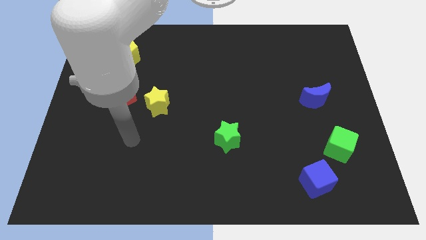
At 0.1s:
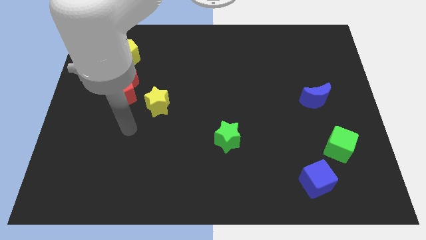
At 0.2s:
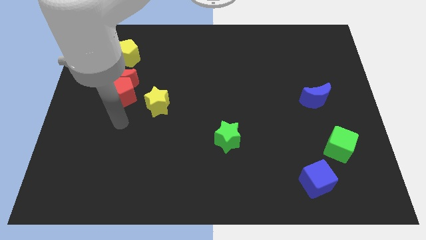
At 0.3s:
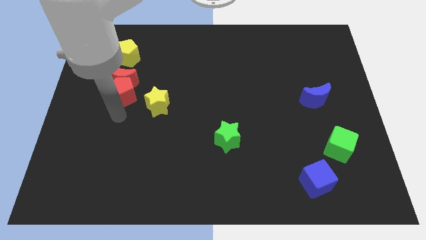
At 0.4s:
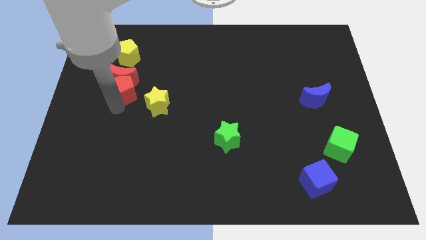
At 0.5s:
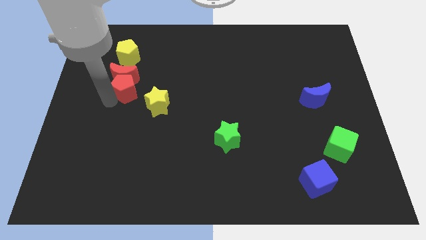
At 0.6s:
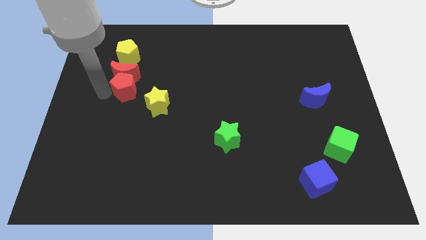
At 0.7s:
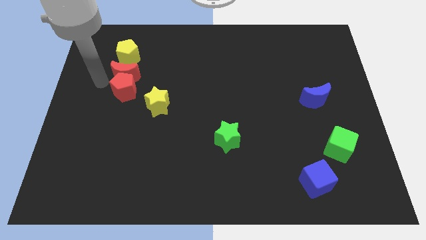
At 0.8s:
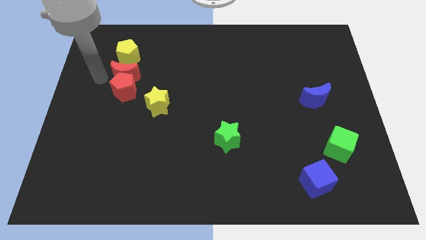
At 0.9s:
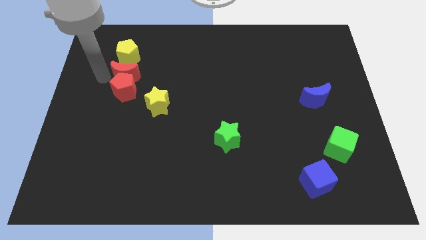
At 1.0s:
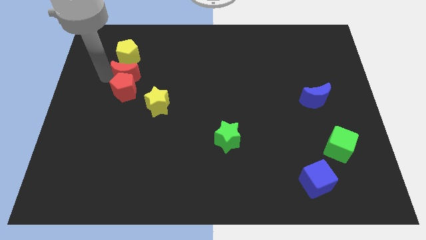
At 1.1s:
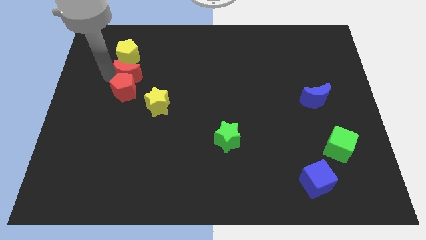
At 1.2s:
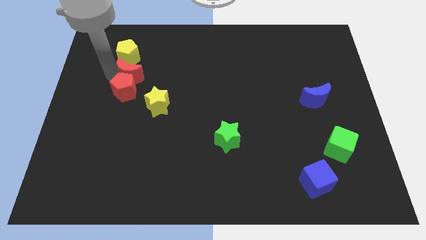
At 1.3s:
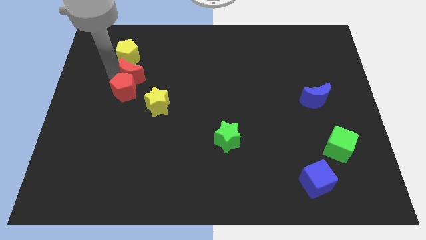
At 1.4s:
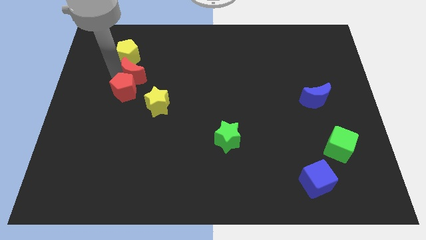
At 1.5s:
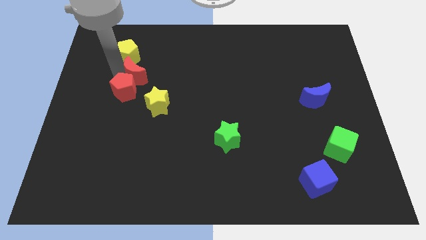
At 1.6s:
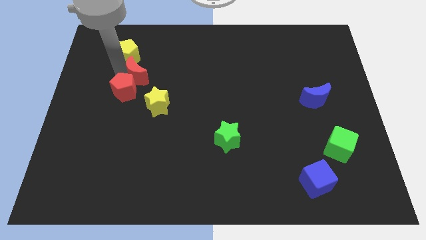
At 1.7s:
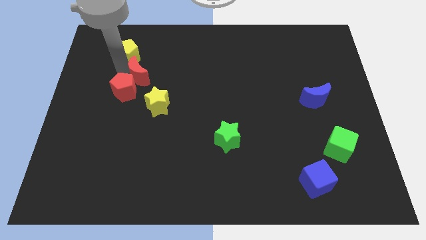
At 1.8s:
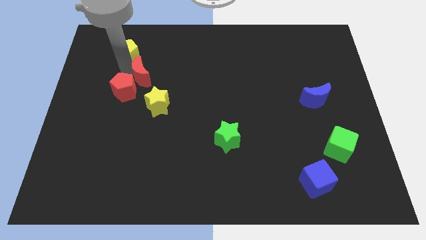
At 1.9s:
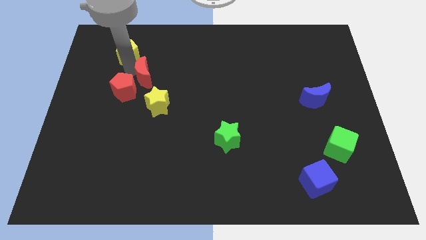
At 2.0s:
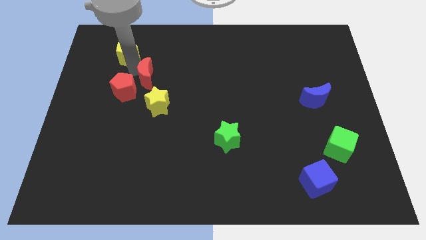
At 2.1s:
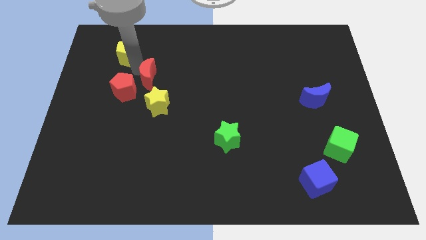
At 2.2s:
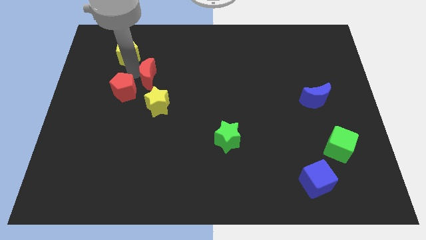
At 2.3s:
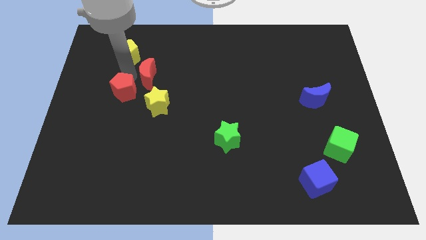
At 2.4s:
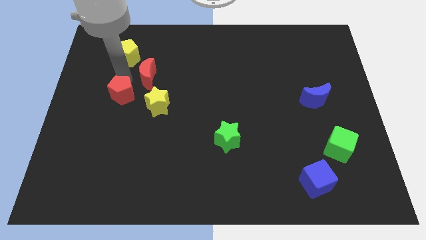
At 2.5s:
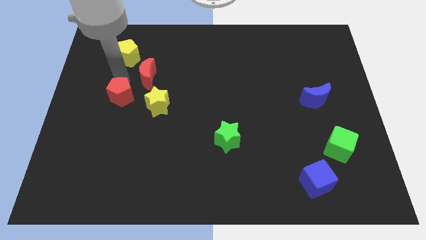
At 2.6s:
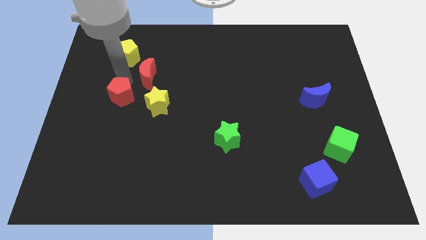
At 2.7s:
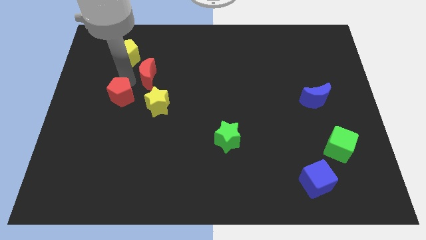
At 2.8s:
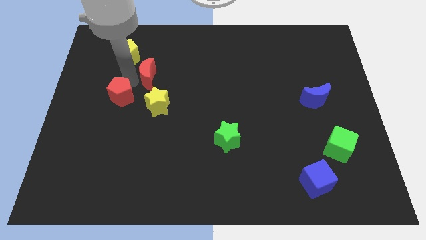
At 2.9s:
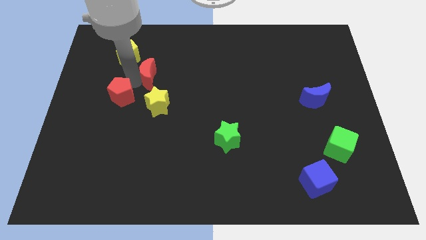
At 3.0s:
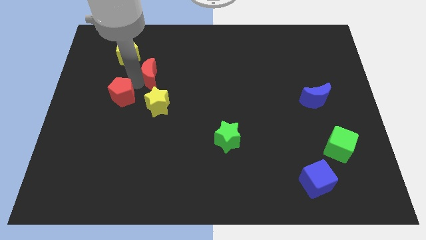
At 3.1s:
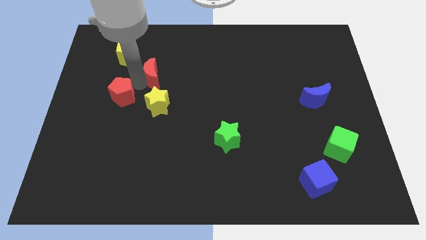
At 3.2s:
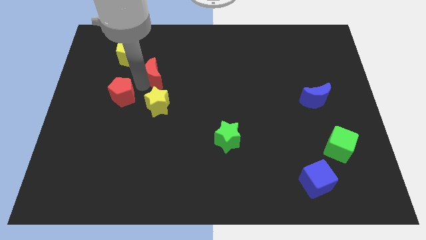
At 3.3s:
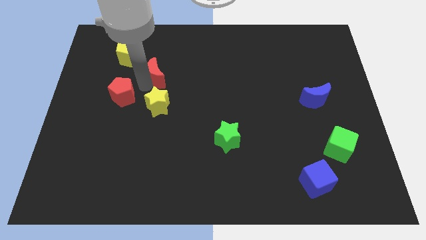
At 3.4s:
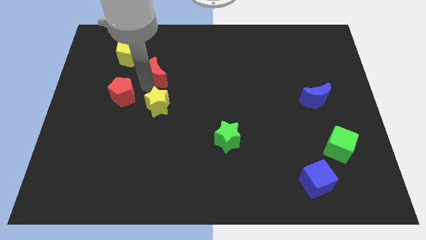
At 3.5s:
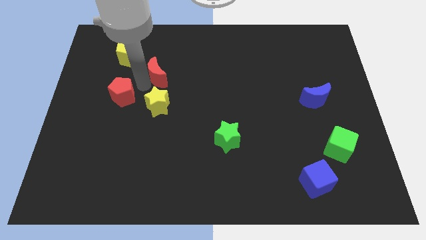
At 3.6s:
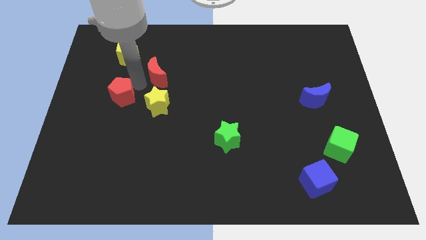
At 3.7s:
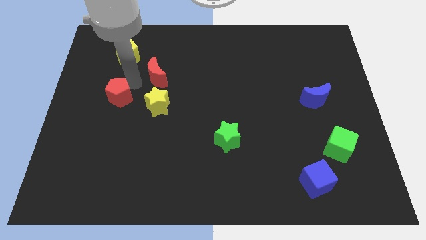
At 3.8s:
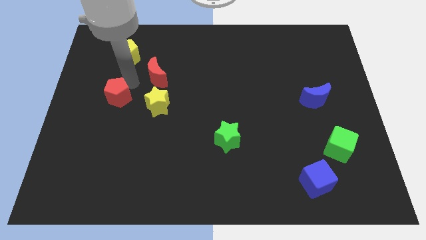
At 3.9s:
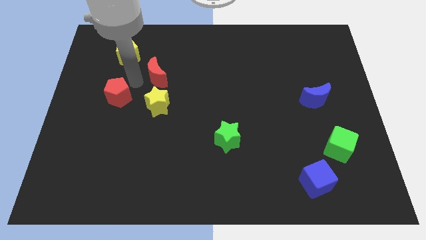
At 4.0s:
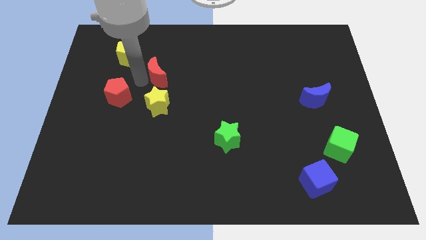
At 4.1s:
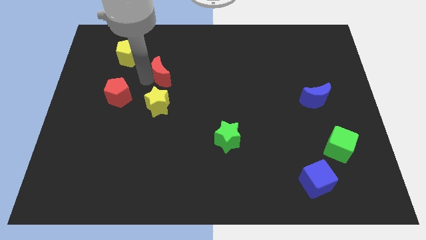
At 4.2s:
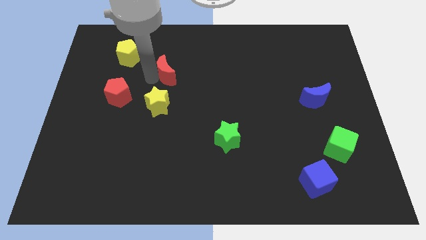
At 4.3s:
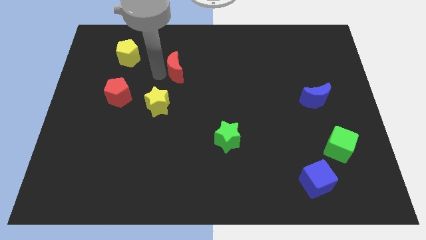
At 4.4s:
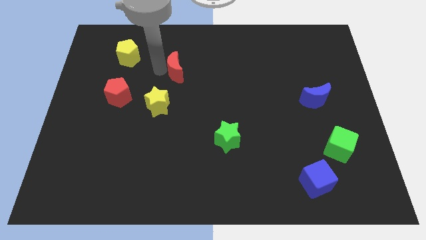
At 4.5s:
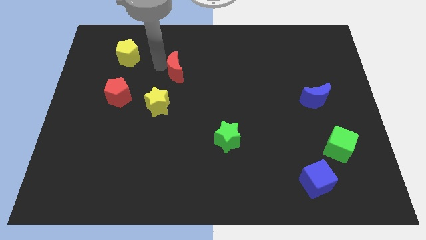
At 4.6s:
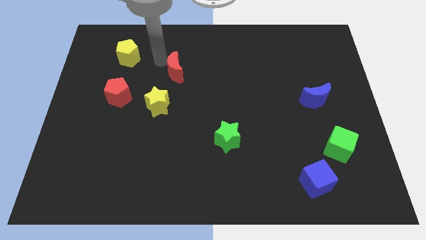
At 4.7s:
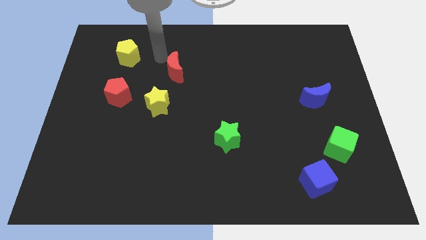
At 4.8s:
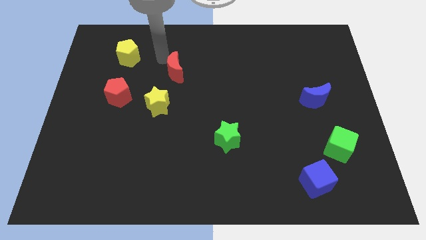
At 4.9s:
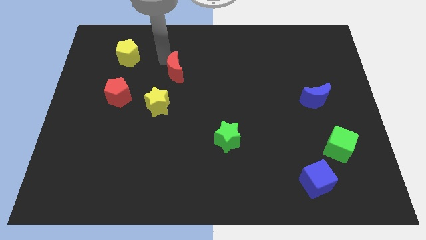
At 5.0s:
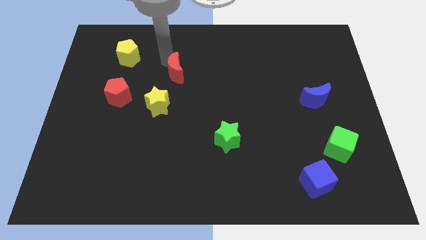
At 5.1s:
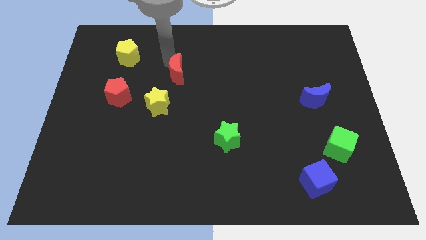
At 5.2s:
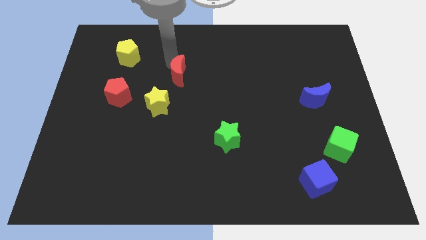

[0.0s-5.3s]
slide the red moon to the middle

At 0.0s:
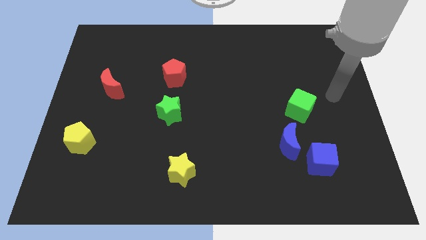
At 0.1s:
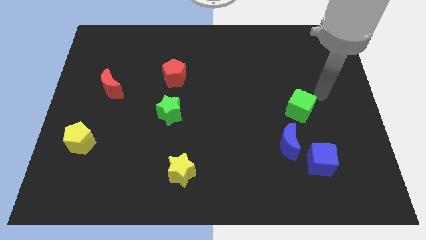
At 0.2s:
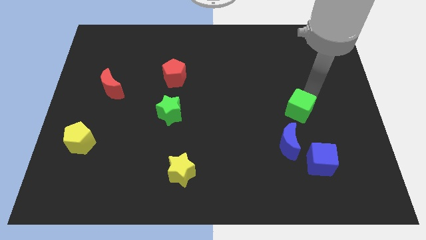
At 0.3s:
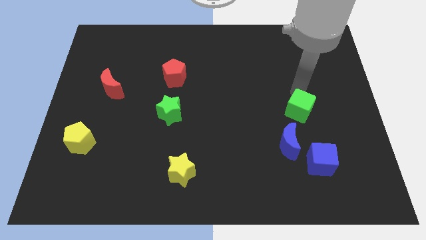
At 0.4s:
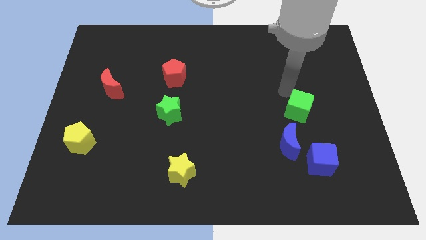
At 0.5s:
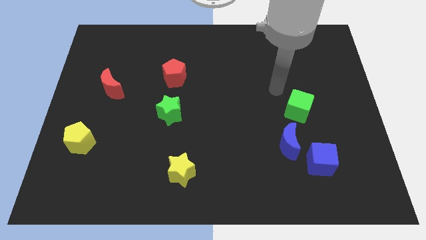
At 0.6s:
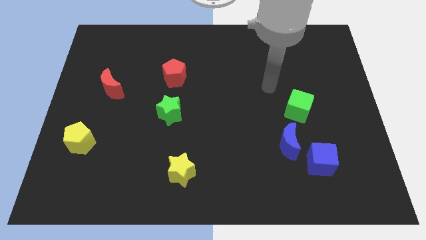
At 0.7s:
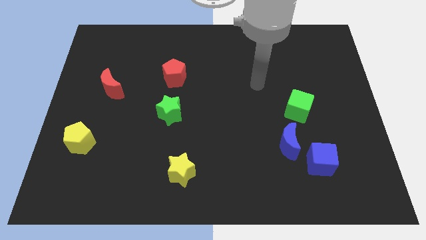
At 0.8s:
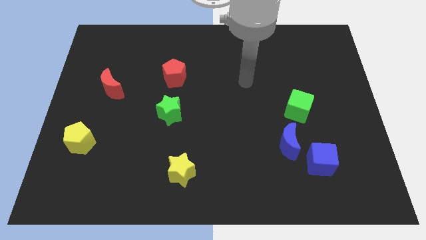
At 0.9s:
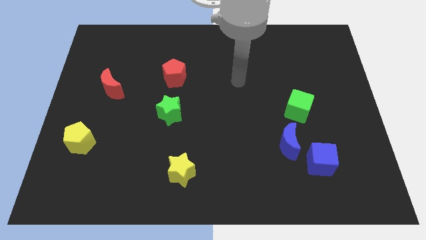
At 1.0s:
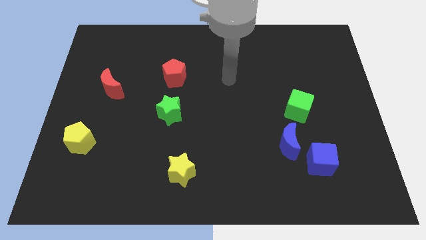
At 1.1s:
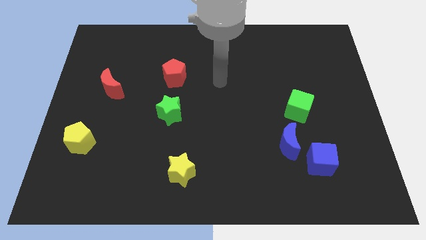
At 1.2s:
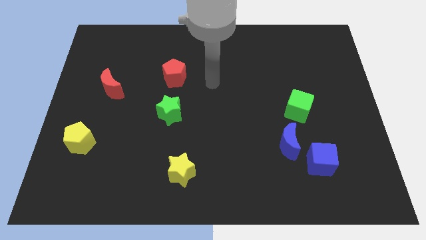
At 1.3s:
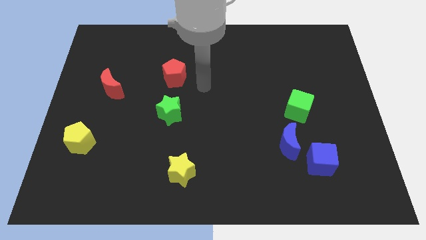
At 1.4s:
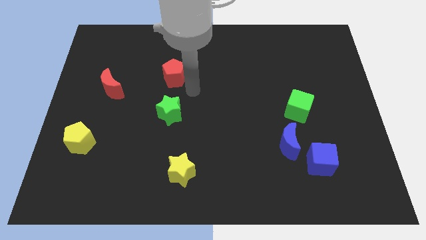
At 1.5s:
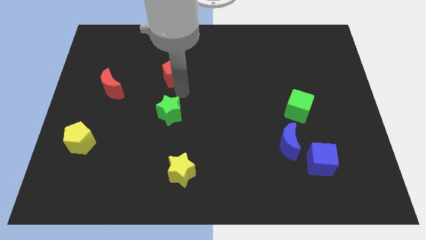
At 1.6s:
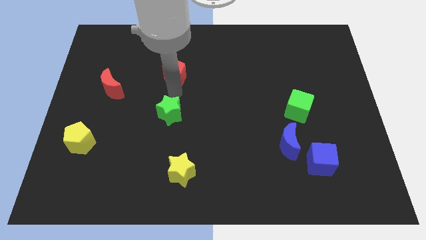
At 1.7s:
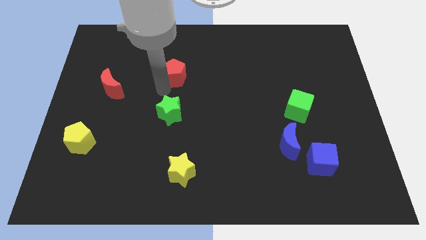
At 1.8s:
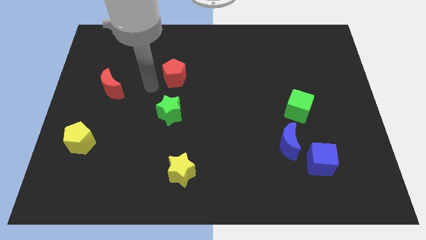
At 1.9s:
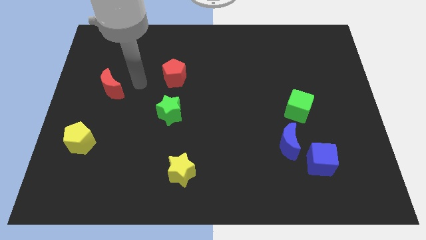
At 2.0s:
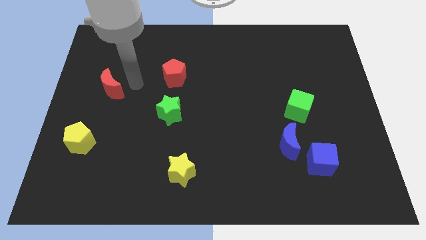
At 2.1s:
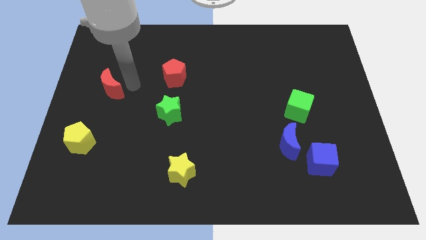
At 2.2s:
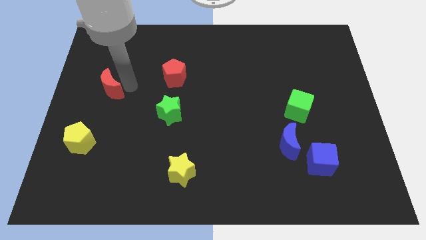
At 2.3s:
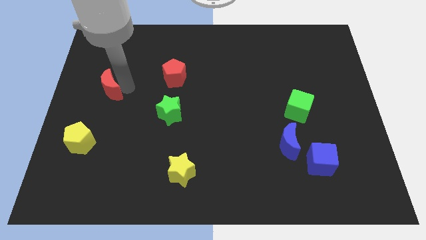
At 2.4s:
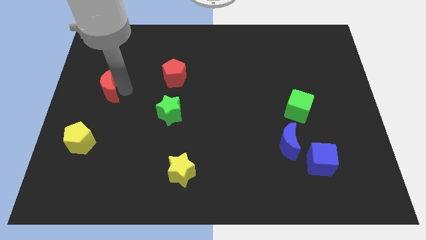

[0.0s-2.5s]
slide the red moon to the center left
